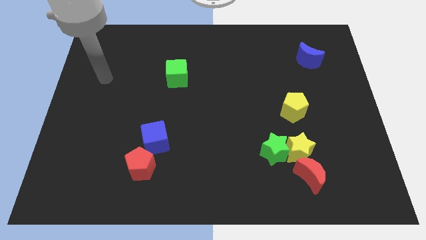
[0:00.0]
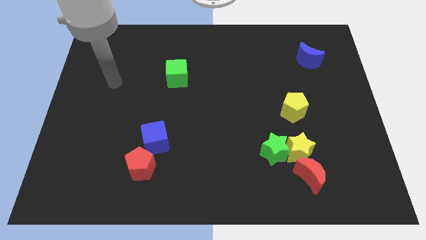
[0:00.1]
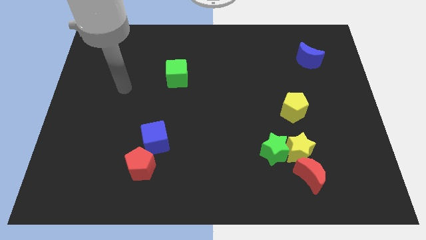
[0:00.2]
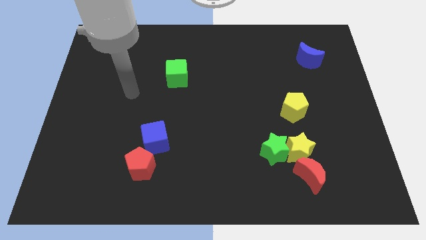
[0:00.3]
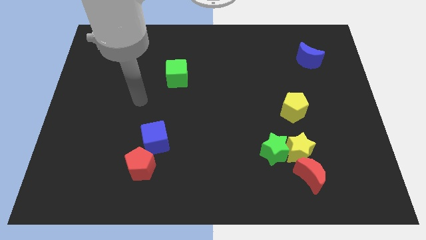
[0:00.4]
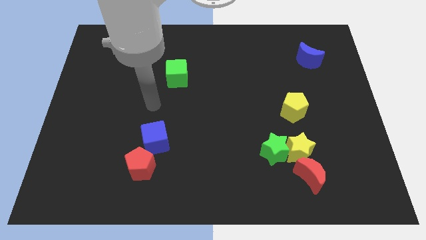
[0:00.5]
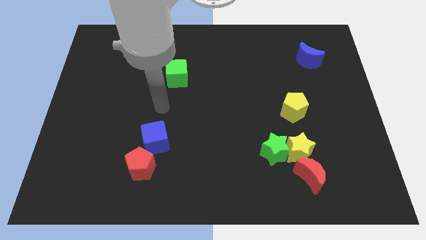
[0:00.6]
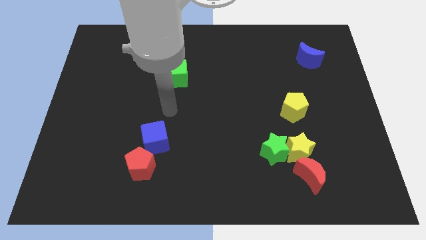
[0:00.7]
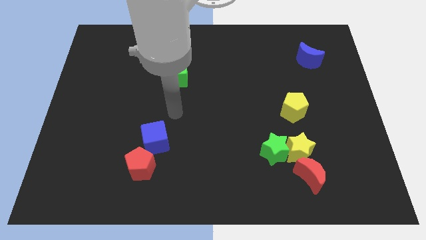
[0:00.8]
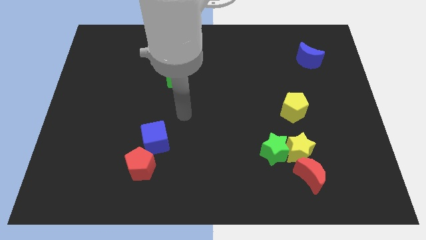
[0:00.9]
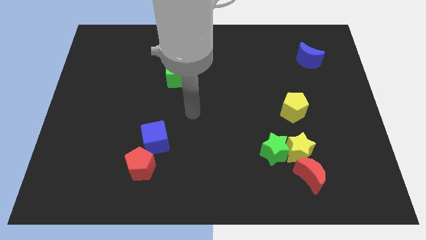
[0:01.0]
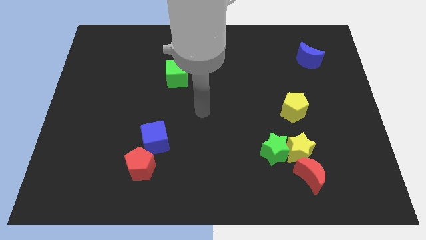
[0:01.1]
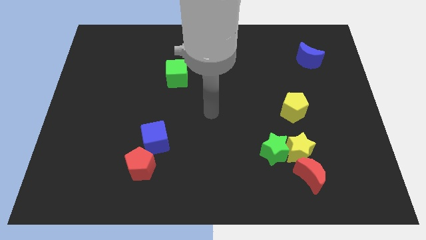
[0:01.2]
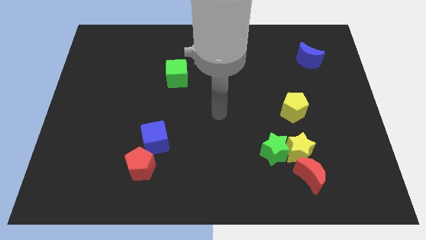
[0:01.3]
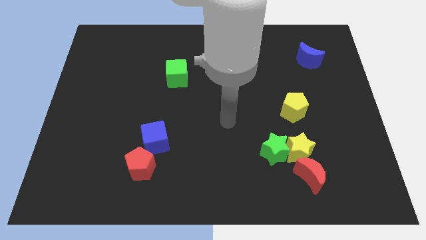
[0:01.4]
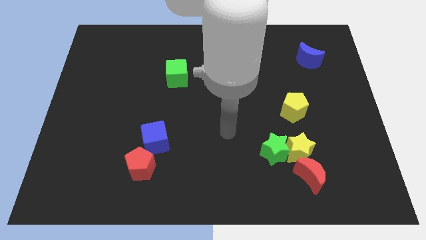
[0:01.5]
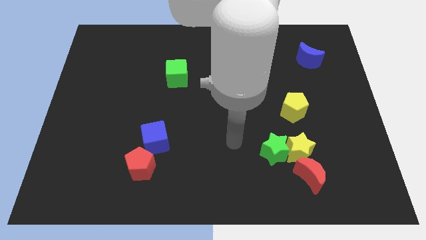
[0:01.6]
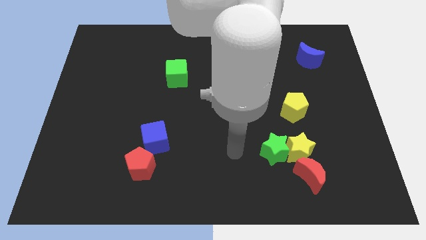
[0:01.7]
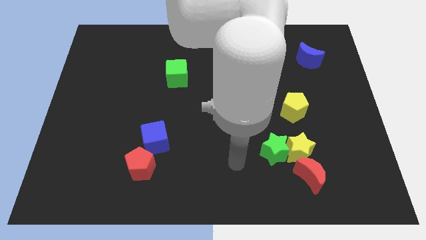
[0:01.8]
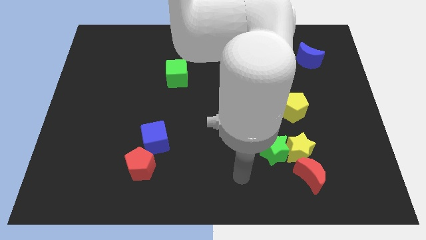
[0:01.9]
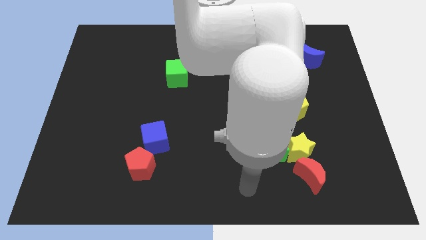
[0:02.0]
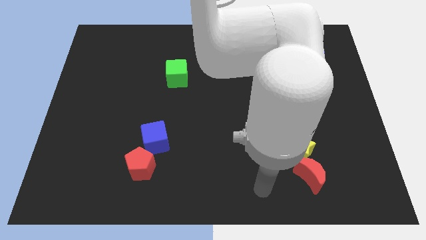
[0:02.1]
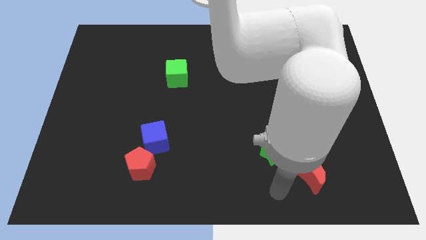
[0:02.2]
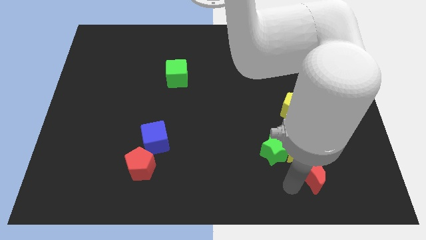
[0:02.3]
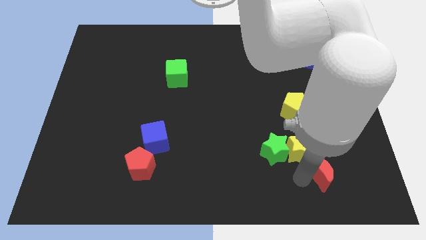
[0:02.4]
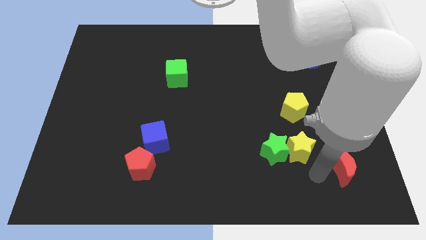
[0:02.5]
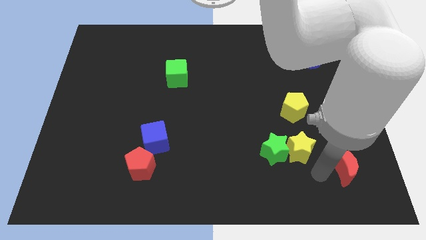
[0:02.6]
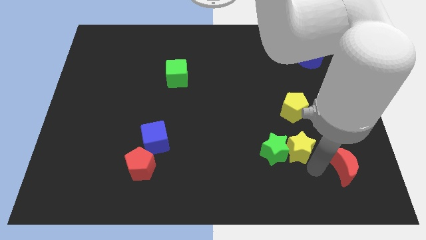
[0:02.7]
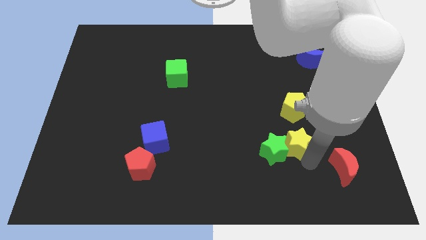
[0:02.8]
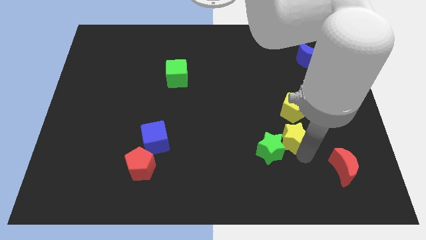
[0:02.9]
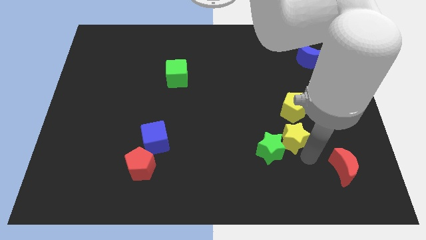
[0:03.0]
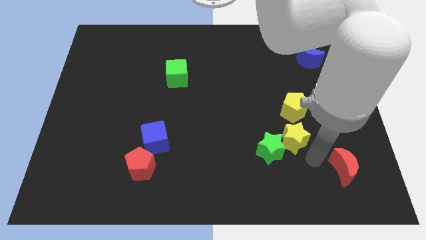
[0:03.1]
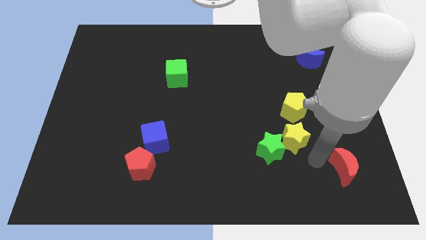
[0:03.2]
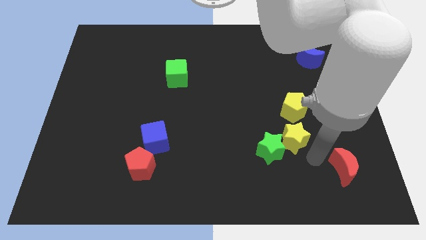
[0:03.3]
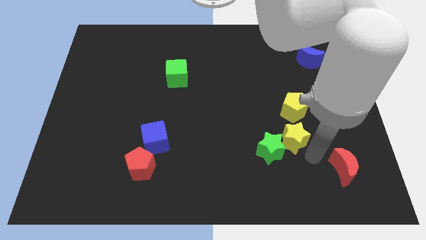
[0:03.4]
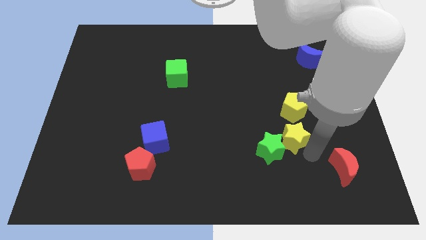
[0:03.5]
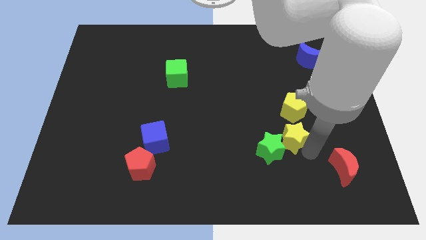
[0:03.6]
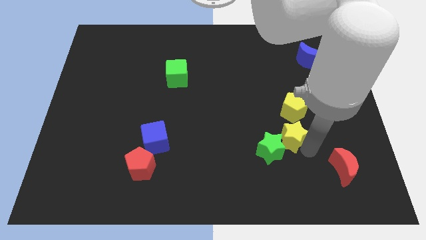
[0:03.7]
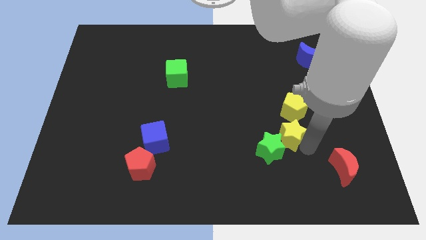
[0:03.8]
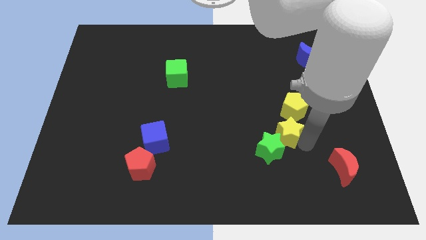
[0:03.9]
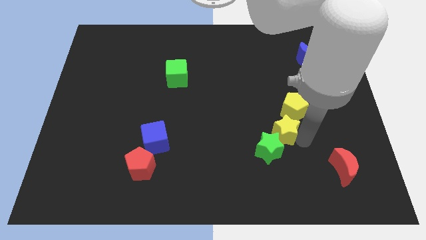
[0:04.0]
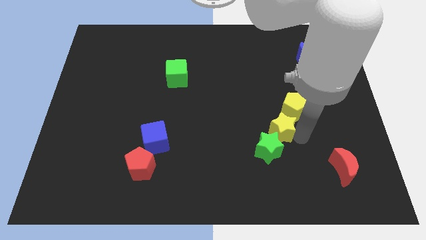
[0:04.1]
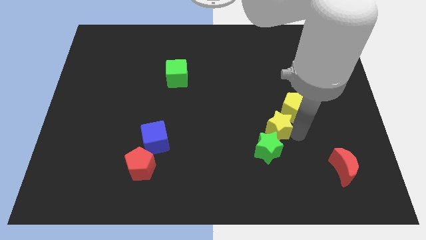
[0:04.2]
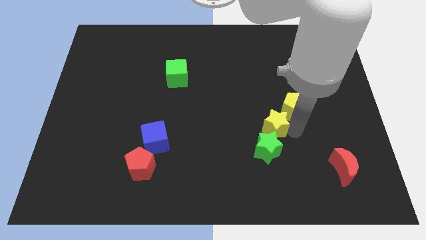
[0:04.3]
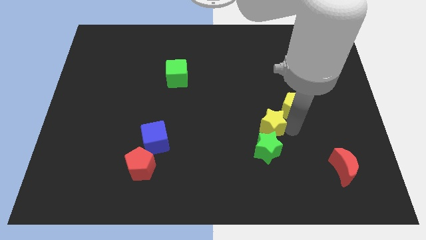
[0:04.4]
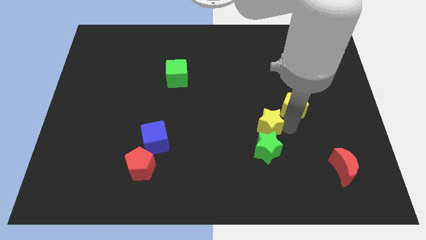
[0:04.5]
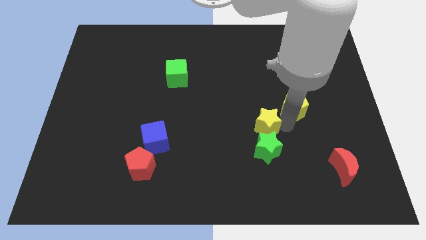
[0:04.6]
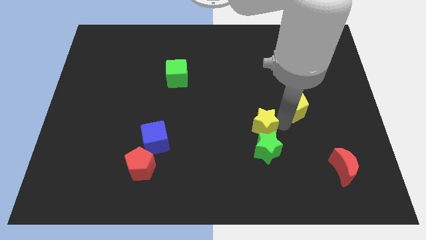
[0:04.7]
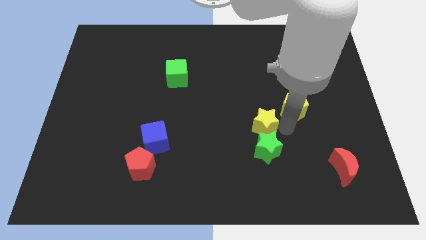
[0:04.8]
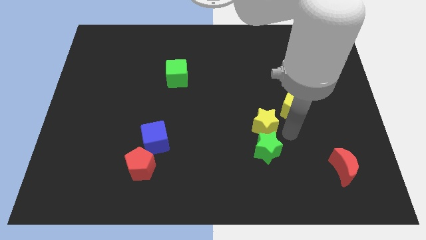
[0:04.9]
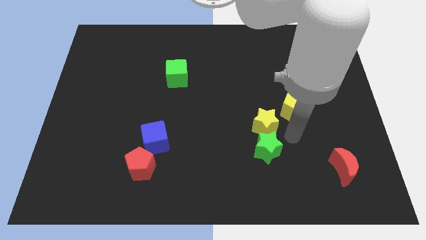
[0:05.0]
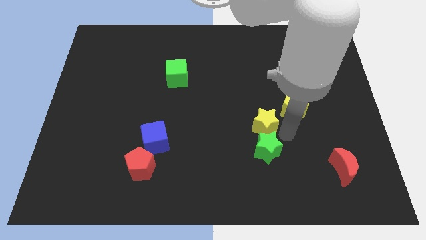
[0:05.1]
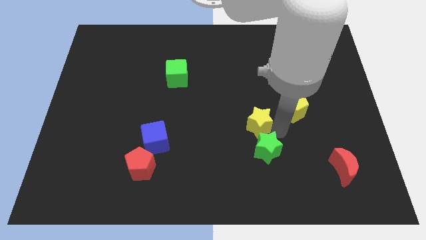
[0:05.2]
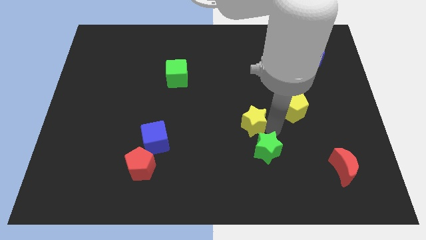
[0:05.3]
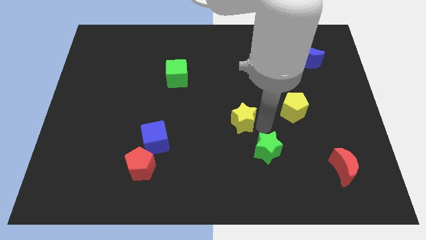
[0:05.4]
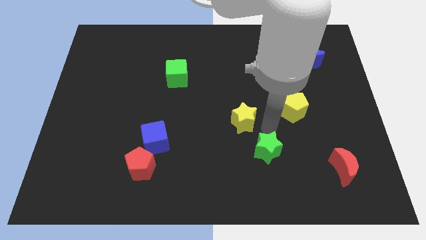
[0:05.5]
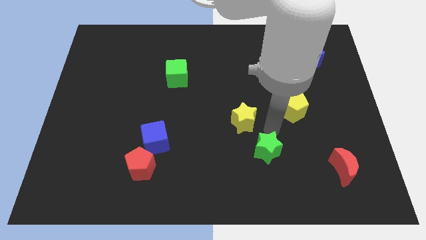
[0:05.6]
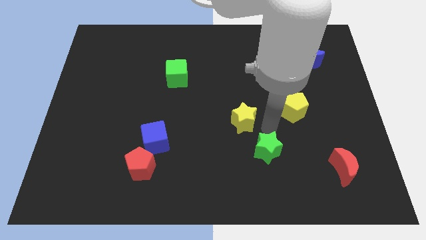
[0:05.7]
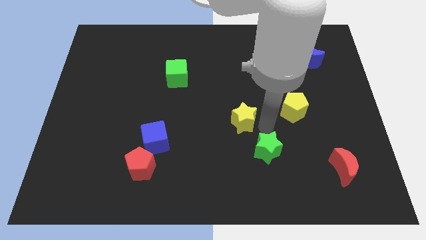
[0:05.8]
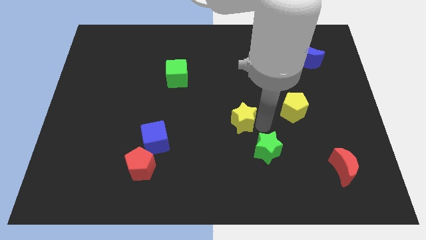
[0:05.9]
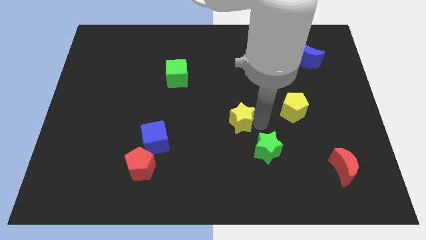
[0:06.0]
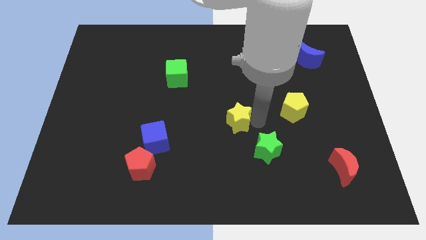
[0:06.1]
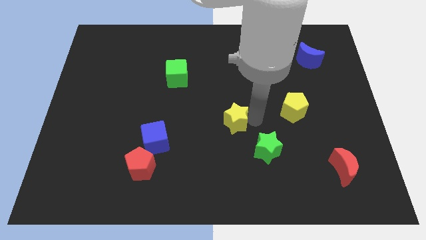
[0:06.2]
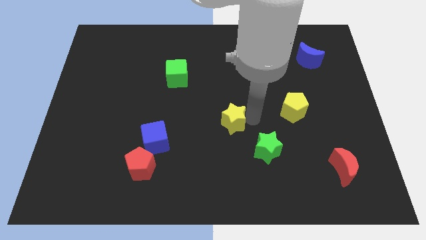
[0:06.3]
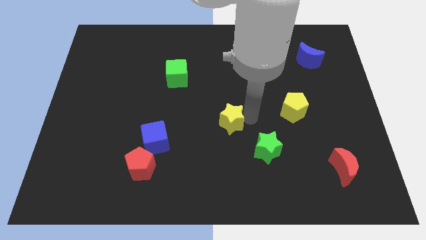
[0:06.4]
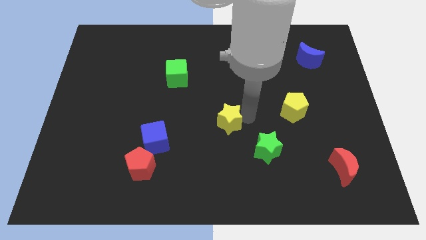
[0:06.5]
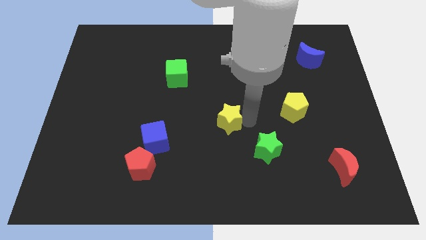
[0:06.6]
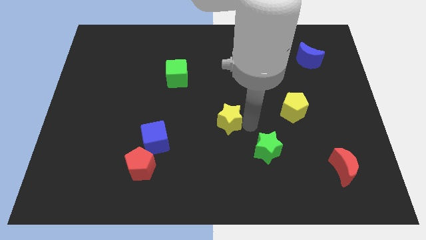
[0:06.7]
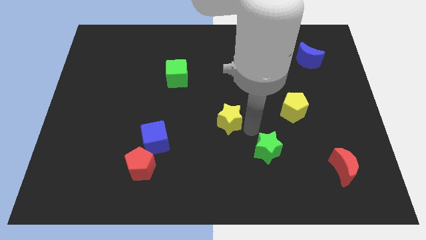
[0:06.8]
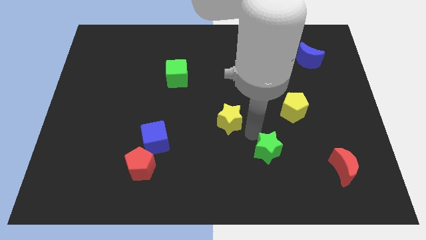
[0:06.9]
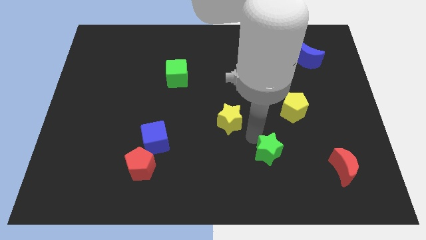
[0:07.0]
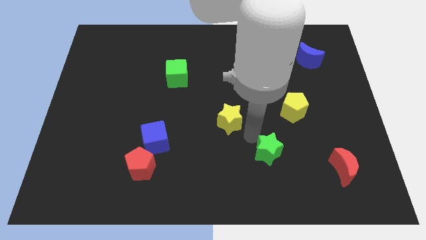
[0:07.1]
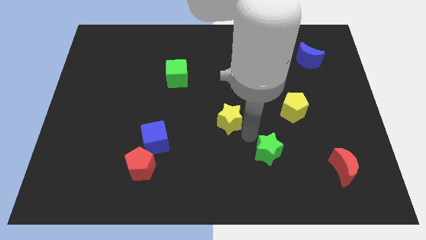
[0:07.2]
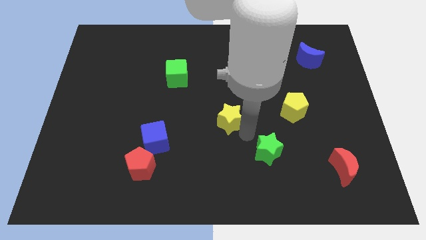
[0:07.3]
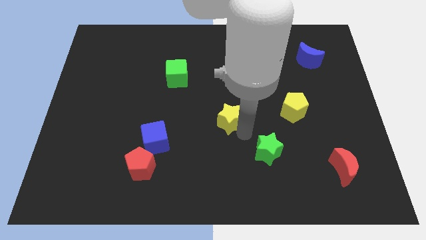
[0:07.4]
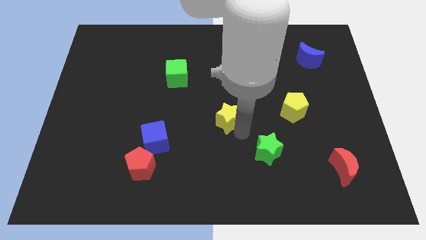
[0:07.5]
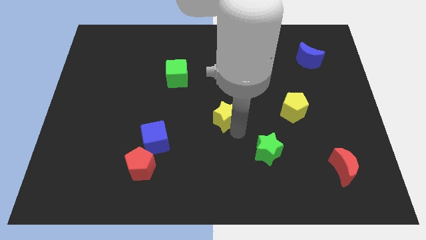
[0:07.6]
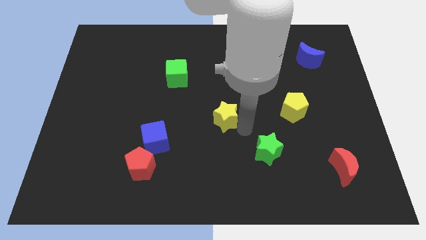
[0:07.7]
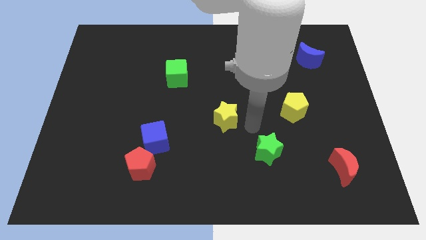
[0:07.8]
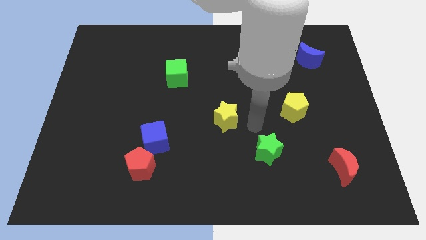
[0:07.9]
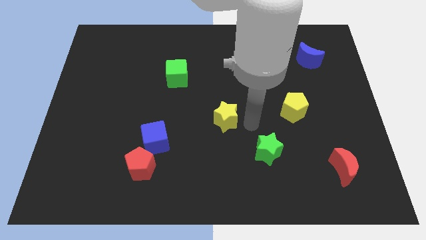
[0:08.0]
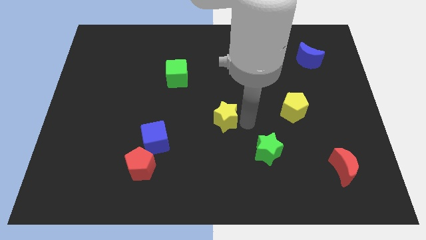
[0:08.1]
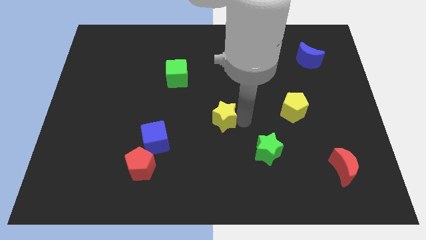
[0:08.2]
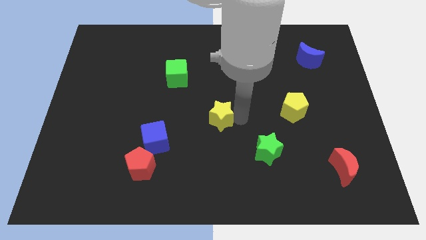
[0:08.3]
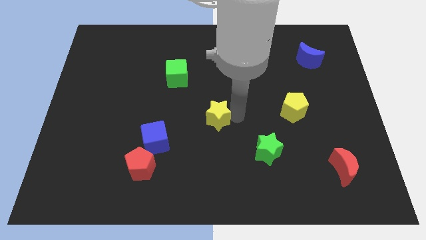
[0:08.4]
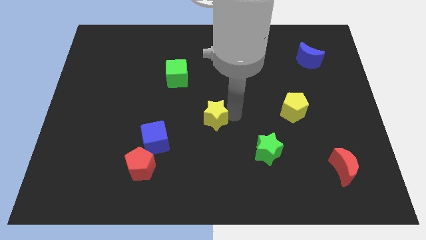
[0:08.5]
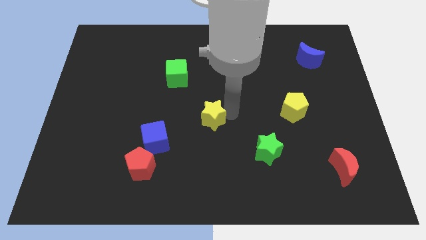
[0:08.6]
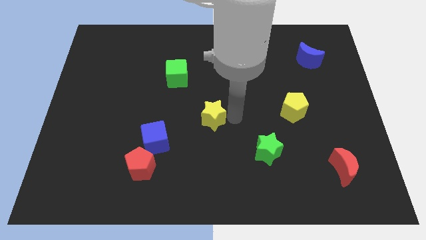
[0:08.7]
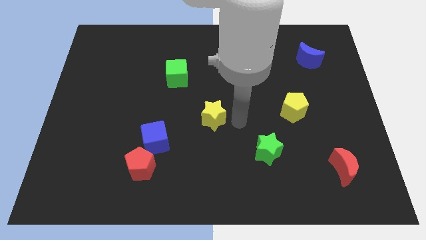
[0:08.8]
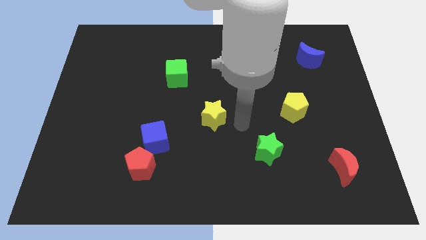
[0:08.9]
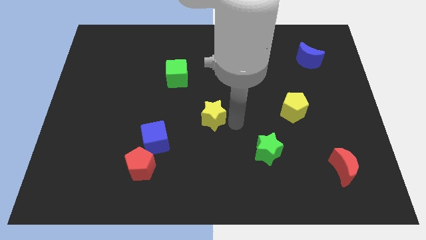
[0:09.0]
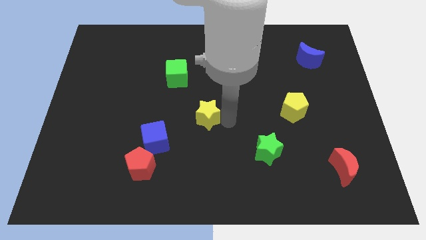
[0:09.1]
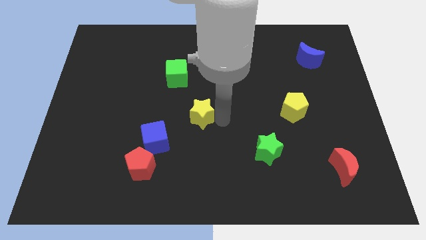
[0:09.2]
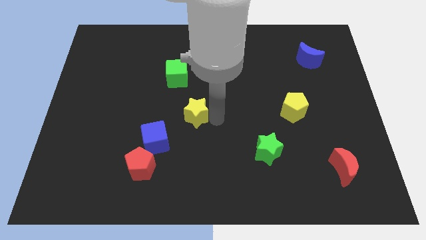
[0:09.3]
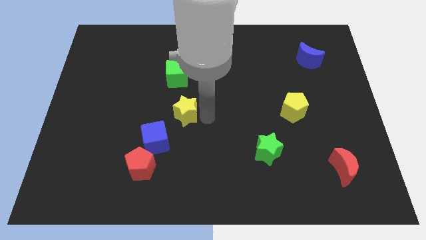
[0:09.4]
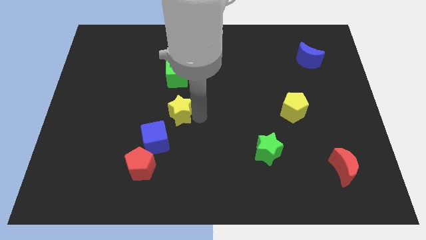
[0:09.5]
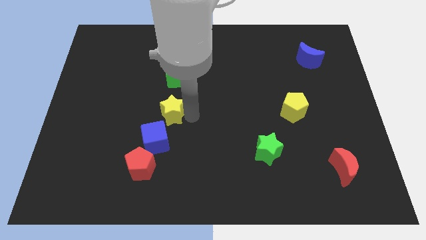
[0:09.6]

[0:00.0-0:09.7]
slide the yellow star above the blue cube
